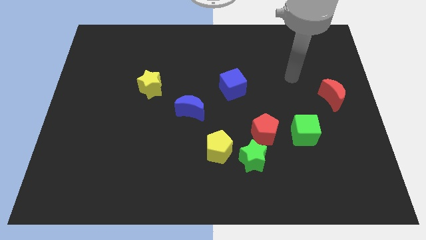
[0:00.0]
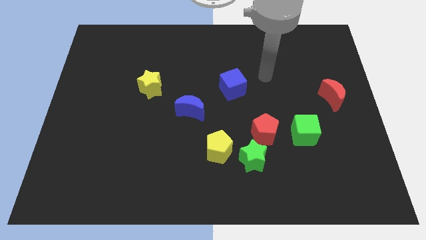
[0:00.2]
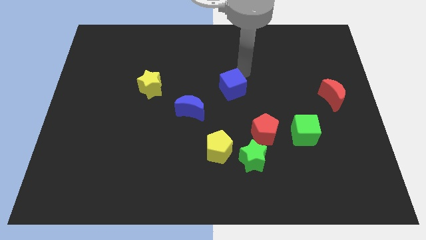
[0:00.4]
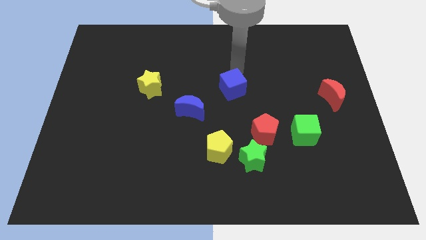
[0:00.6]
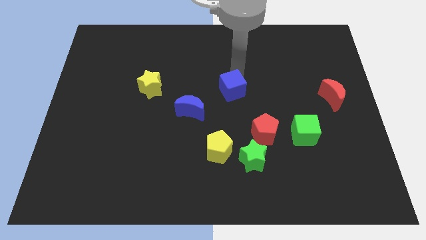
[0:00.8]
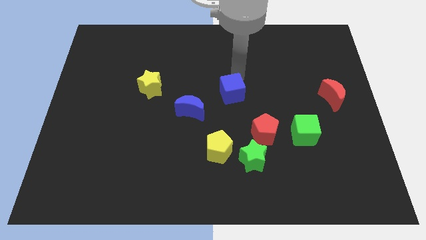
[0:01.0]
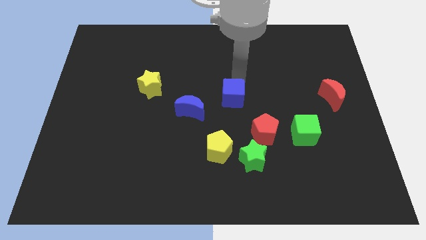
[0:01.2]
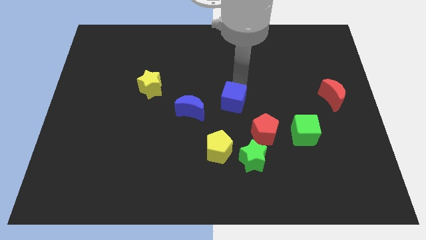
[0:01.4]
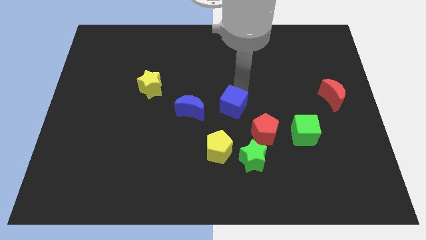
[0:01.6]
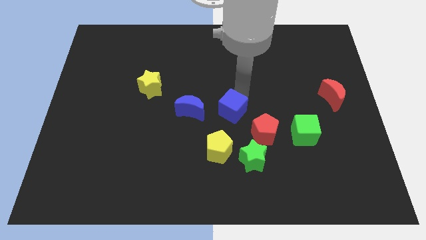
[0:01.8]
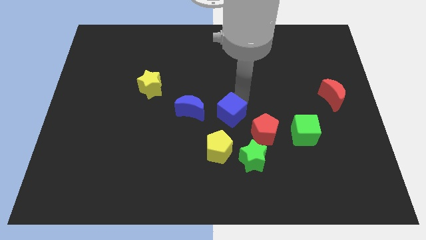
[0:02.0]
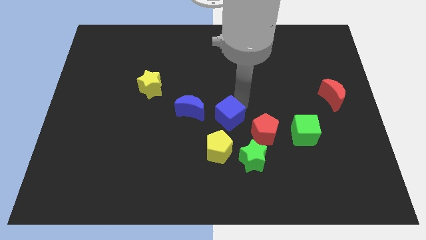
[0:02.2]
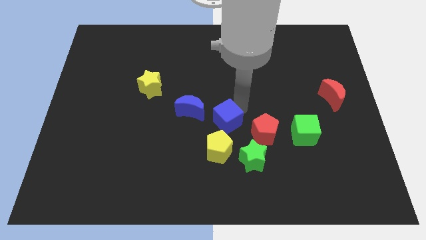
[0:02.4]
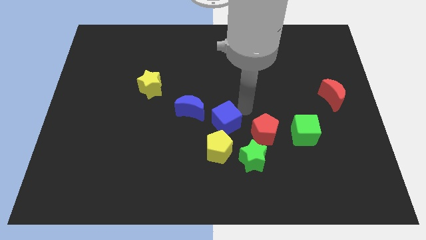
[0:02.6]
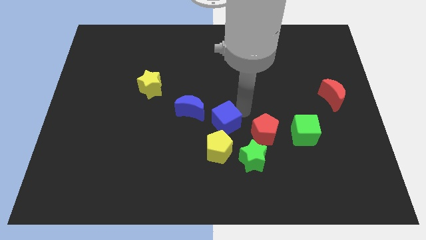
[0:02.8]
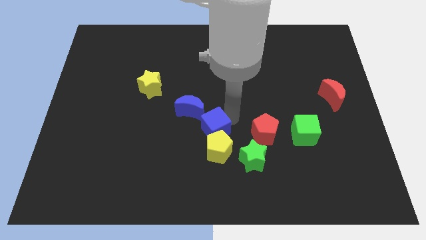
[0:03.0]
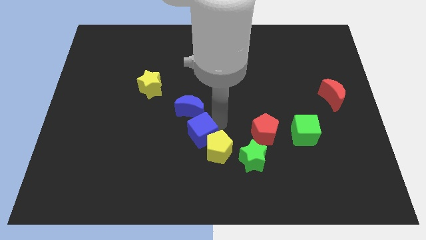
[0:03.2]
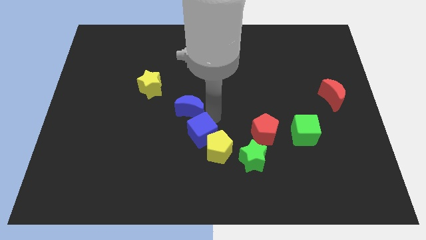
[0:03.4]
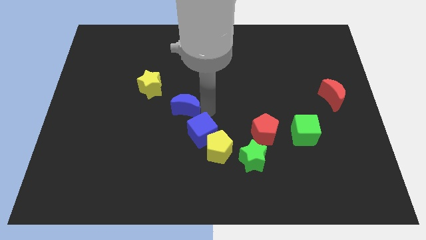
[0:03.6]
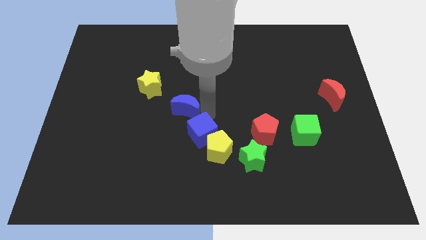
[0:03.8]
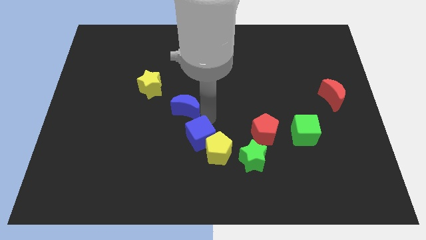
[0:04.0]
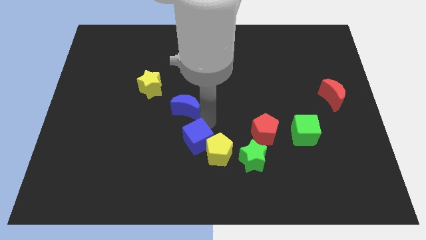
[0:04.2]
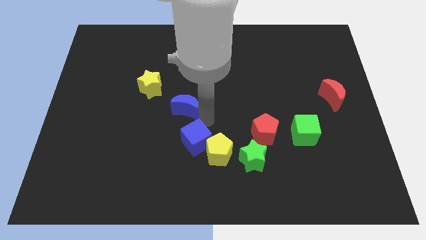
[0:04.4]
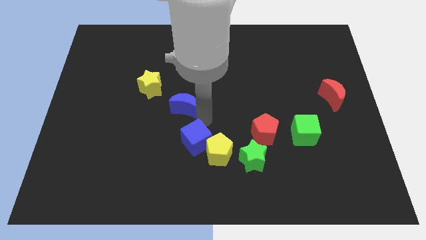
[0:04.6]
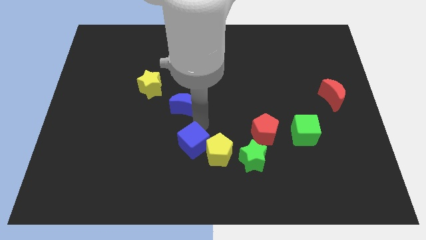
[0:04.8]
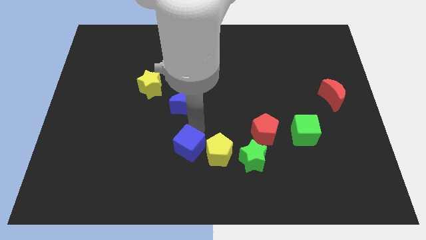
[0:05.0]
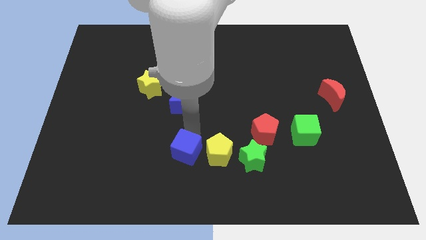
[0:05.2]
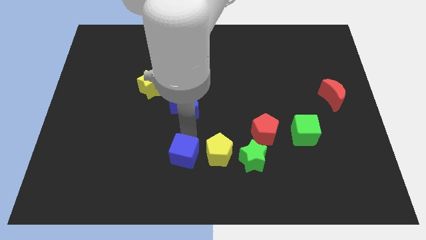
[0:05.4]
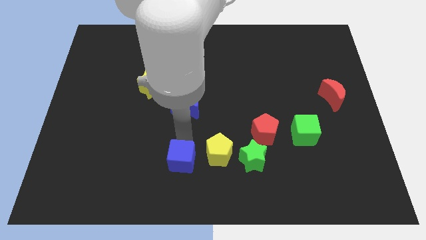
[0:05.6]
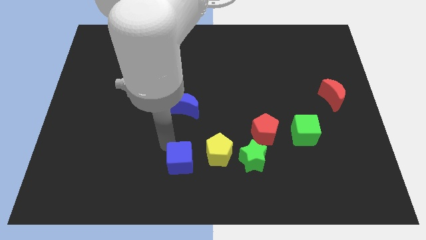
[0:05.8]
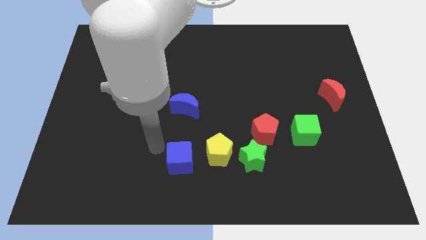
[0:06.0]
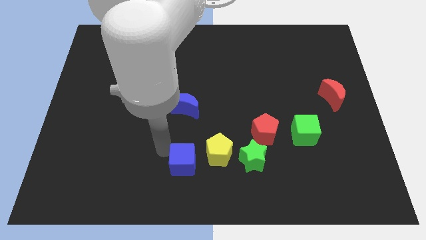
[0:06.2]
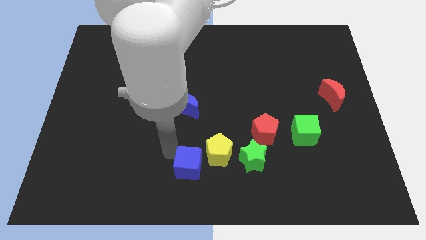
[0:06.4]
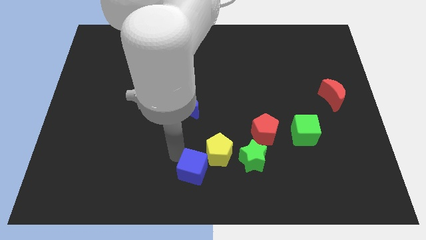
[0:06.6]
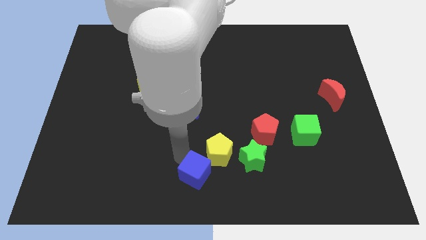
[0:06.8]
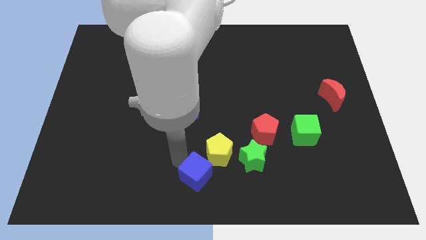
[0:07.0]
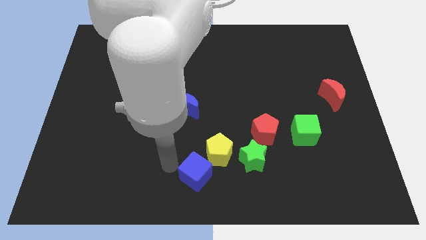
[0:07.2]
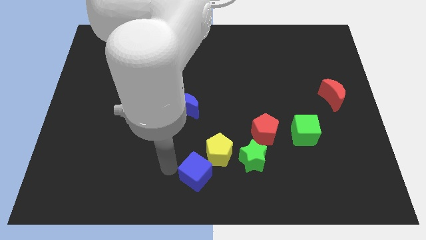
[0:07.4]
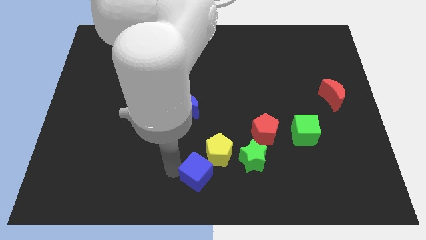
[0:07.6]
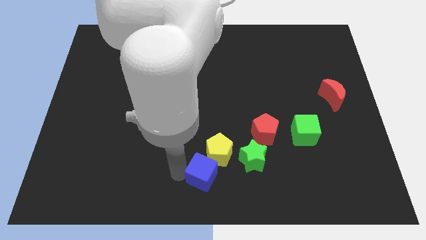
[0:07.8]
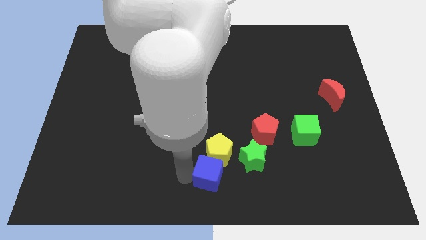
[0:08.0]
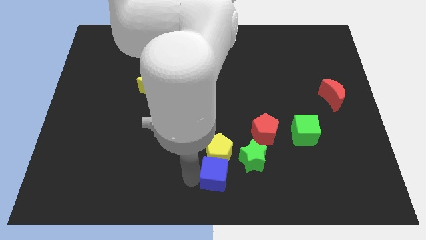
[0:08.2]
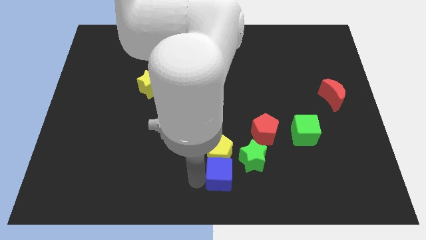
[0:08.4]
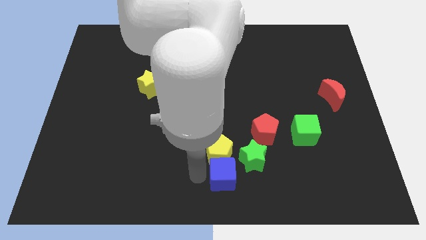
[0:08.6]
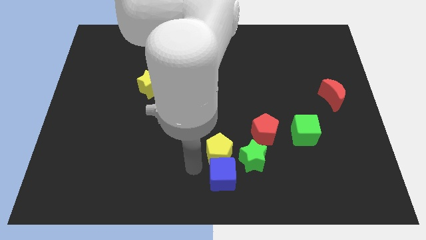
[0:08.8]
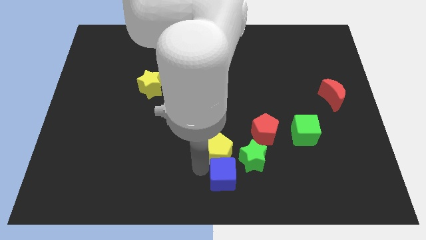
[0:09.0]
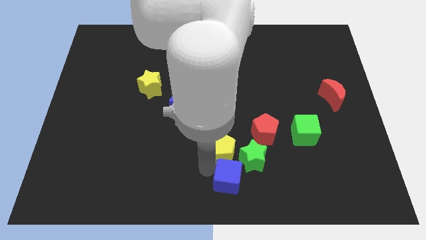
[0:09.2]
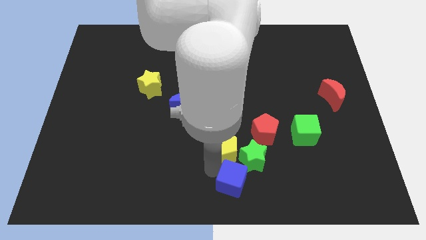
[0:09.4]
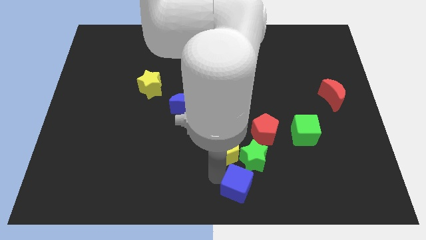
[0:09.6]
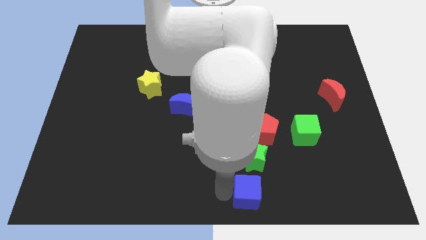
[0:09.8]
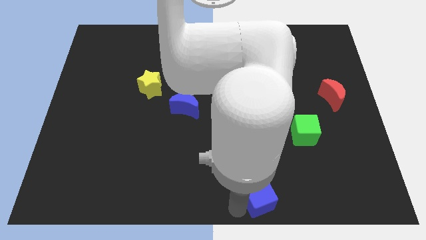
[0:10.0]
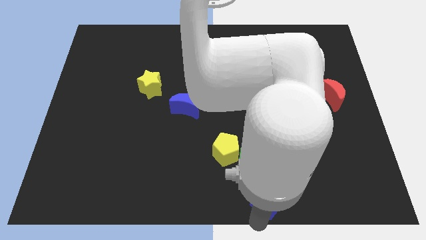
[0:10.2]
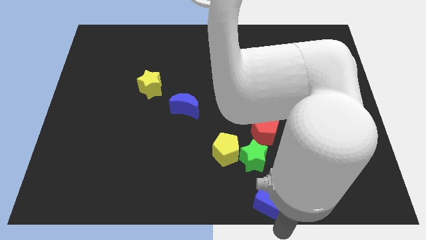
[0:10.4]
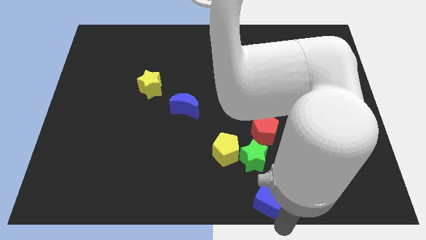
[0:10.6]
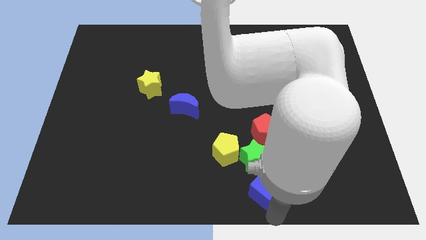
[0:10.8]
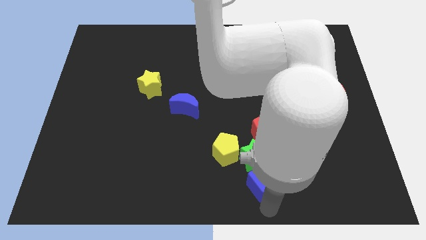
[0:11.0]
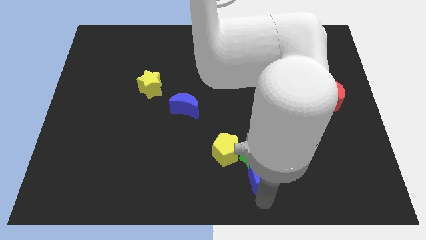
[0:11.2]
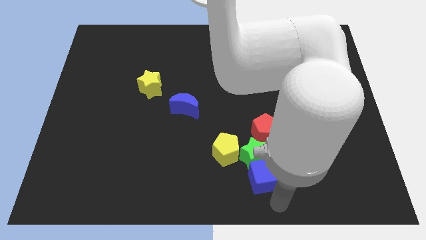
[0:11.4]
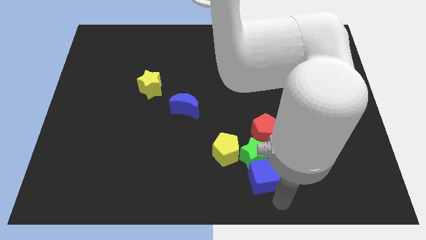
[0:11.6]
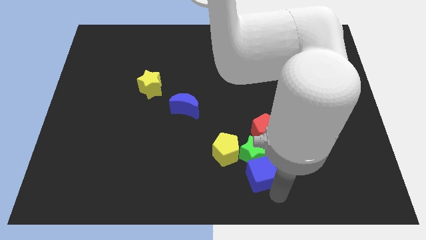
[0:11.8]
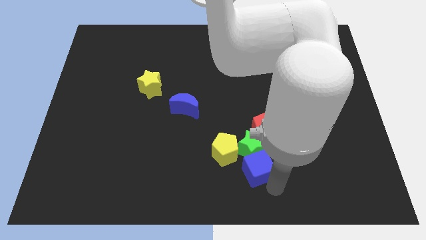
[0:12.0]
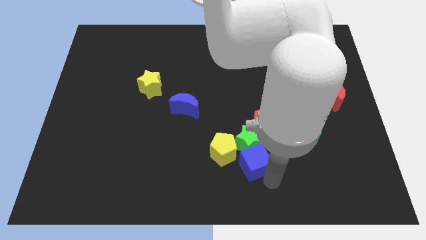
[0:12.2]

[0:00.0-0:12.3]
push the blue cube to the bottom left side of the red pentagon
